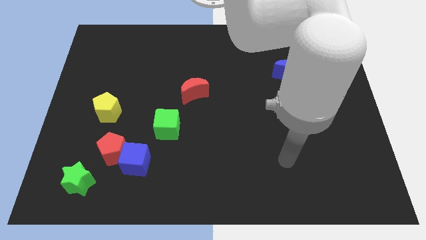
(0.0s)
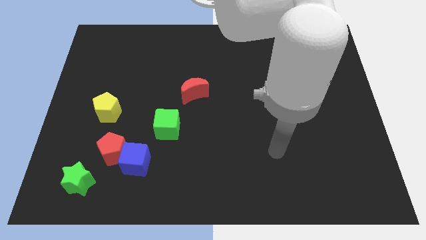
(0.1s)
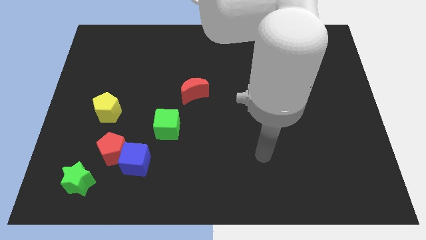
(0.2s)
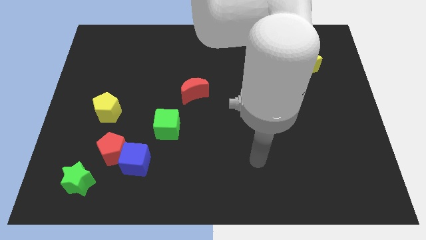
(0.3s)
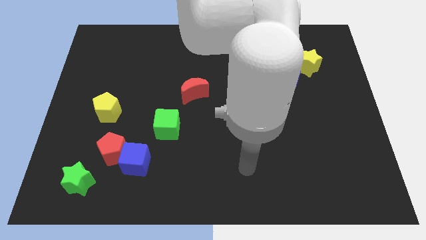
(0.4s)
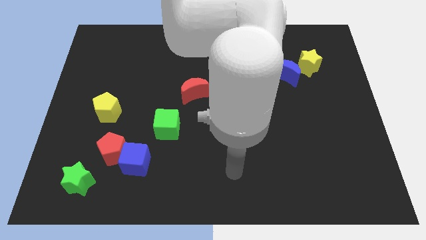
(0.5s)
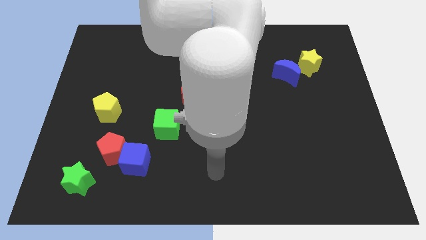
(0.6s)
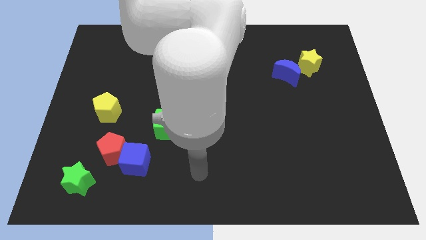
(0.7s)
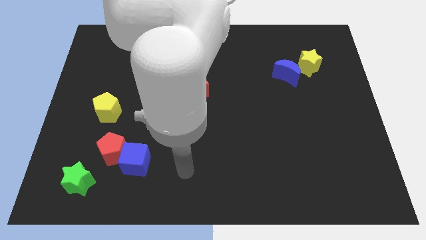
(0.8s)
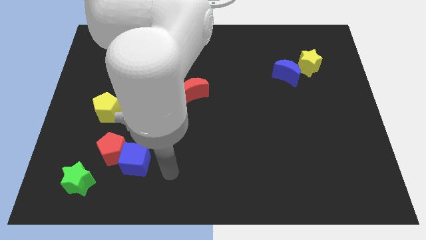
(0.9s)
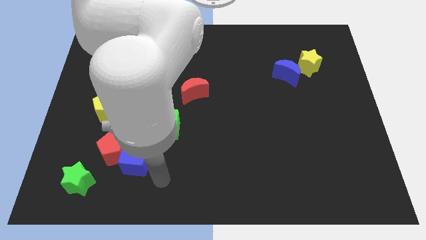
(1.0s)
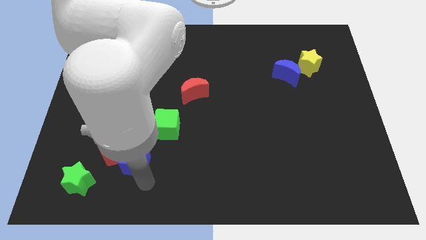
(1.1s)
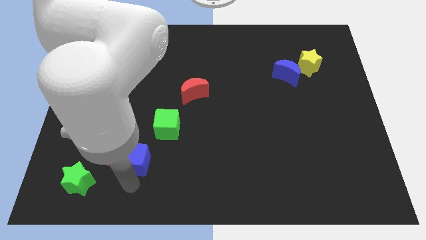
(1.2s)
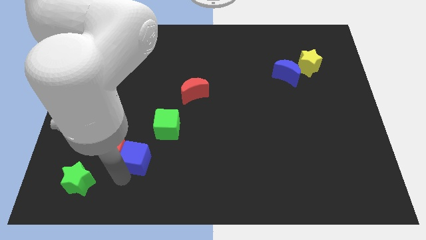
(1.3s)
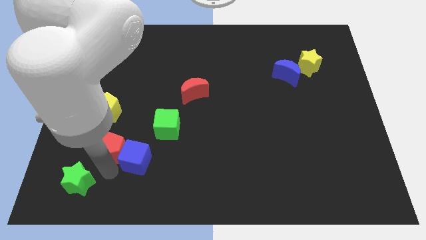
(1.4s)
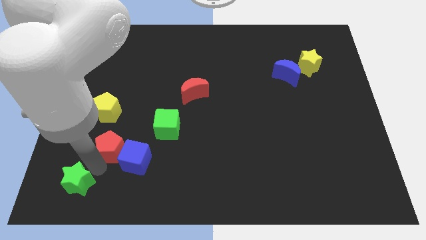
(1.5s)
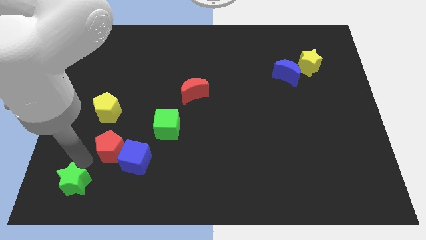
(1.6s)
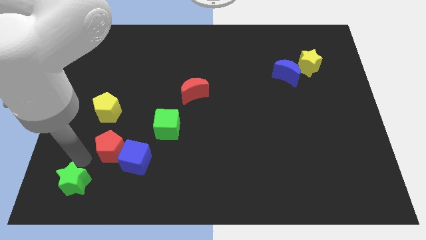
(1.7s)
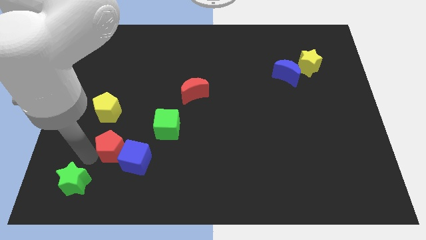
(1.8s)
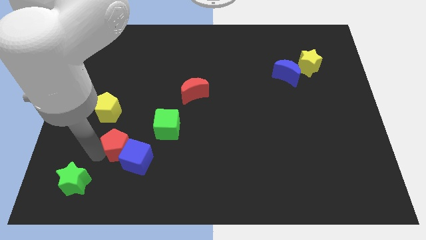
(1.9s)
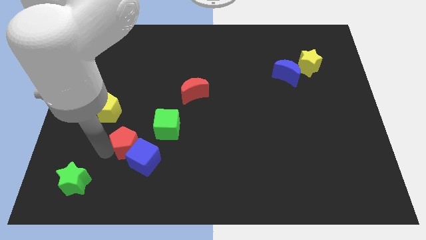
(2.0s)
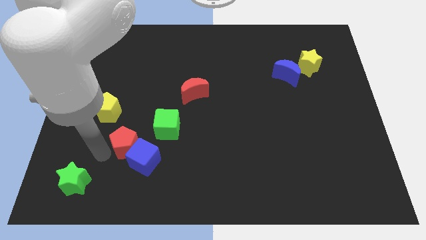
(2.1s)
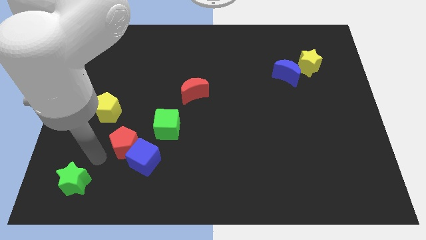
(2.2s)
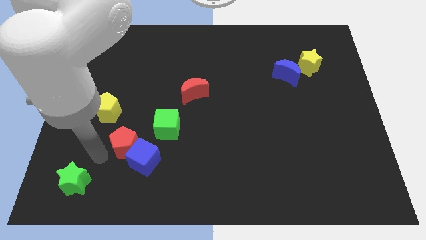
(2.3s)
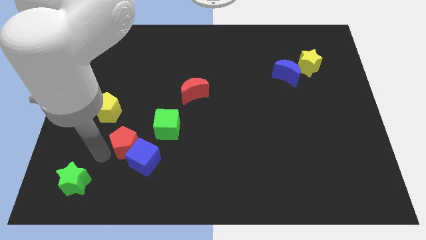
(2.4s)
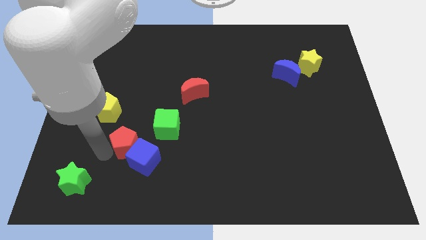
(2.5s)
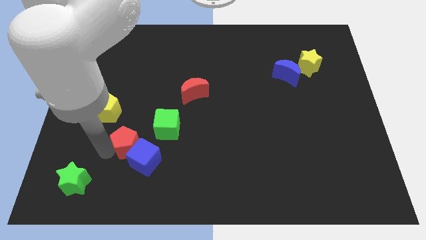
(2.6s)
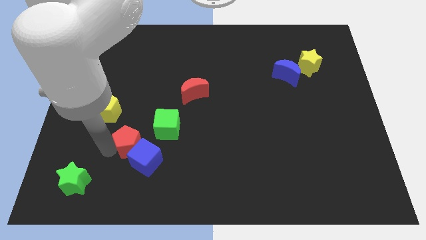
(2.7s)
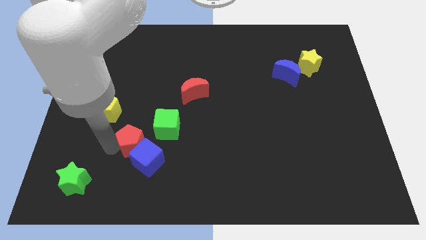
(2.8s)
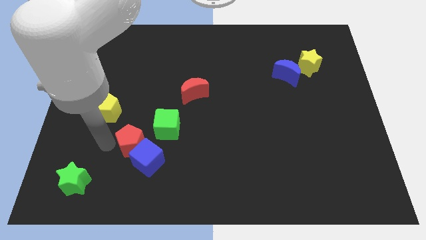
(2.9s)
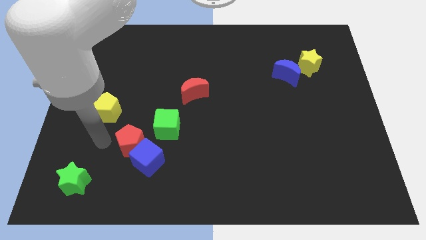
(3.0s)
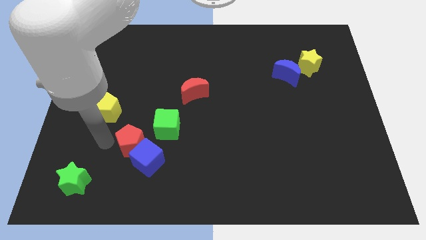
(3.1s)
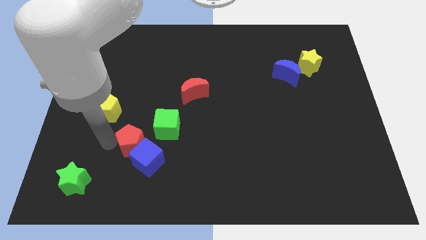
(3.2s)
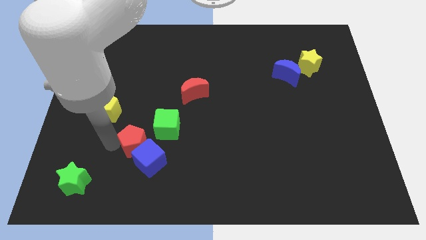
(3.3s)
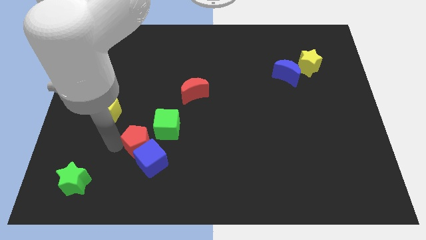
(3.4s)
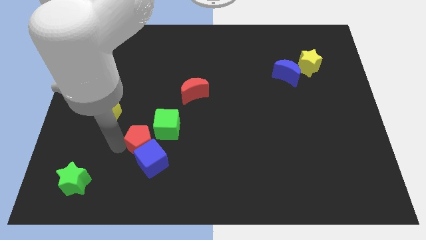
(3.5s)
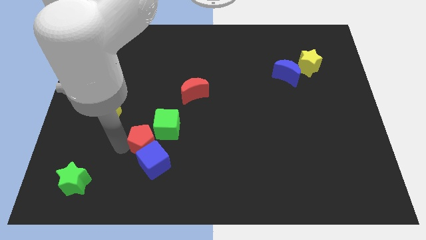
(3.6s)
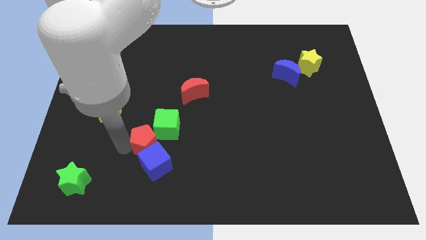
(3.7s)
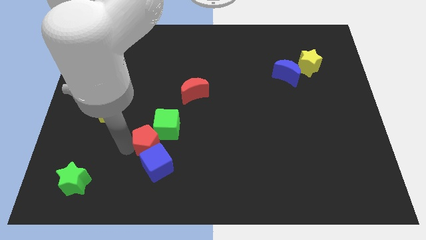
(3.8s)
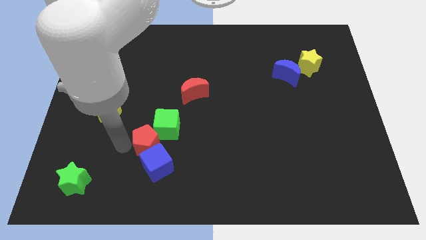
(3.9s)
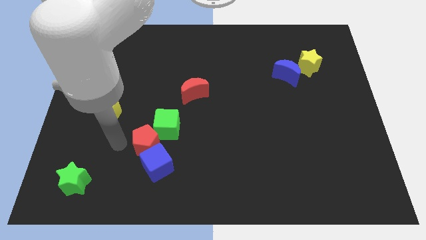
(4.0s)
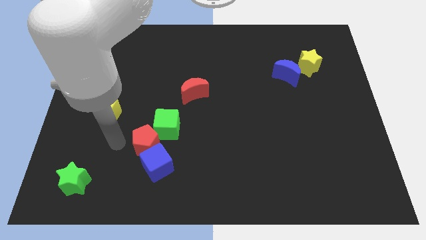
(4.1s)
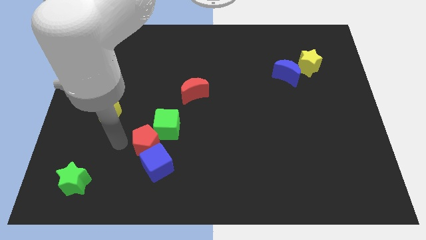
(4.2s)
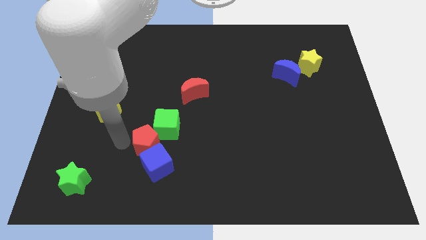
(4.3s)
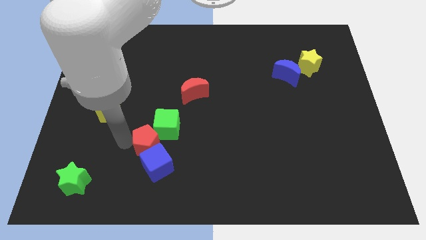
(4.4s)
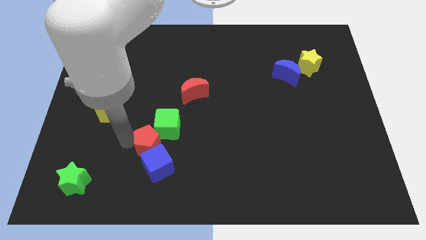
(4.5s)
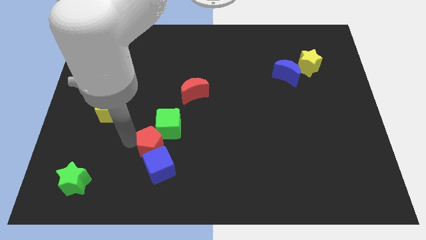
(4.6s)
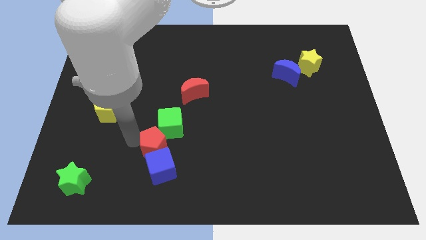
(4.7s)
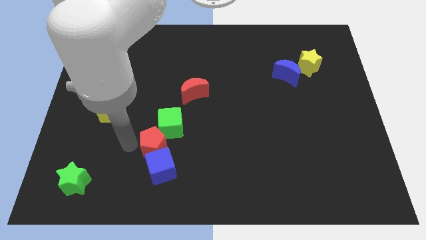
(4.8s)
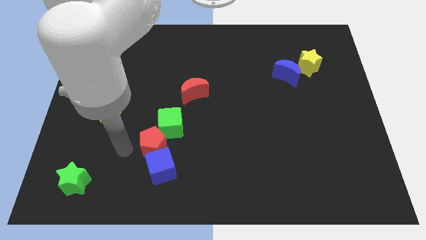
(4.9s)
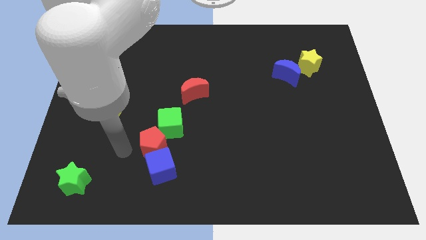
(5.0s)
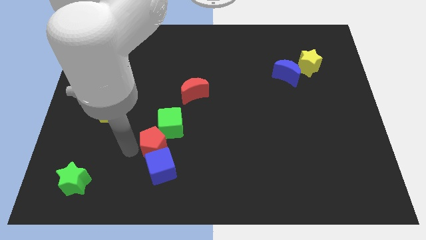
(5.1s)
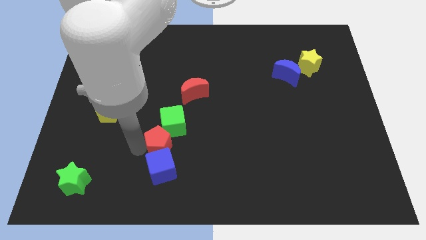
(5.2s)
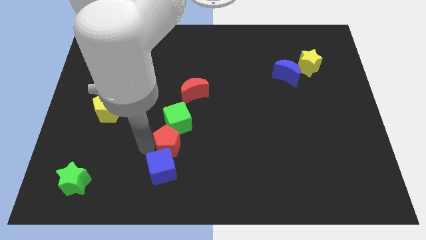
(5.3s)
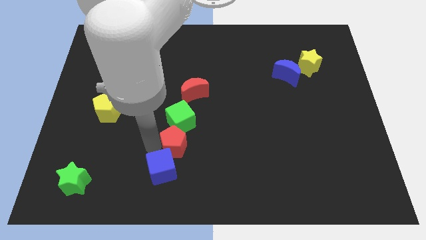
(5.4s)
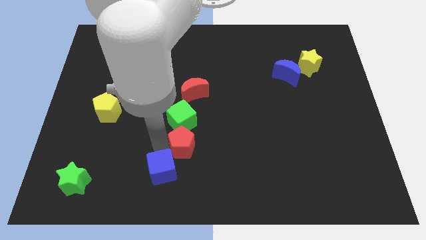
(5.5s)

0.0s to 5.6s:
put the red pentagon below the red moon

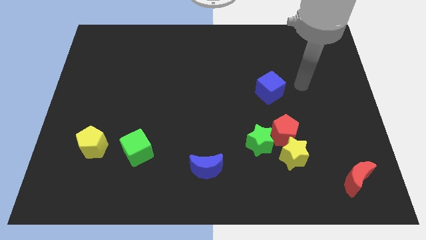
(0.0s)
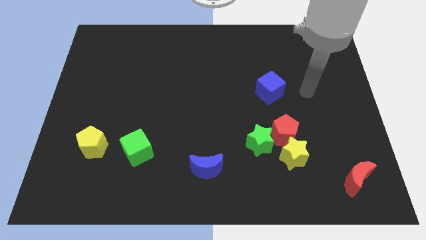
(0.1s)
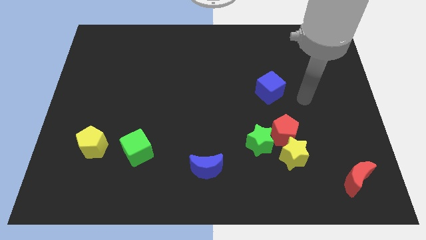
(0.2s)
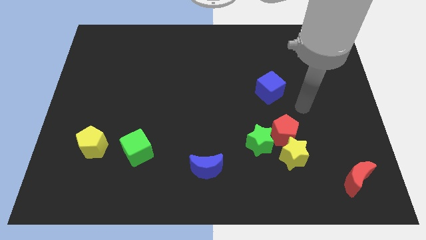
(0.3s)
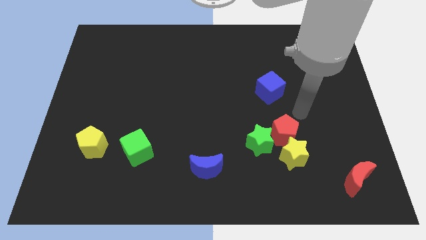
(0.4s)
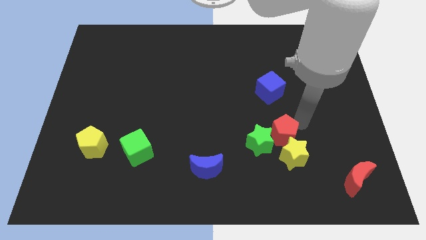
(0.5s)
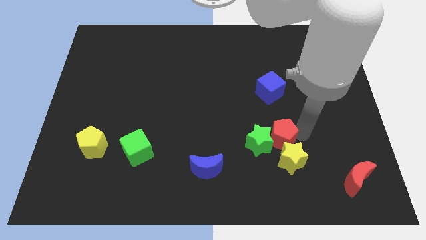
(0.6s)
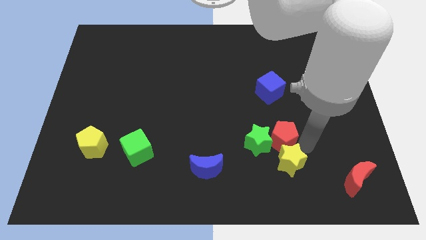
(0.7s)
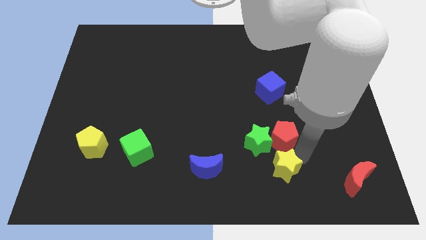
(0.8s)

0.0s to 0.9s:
slide the green star above the yellow star
